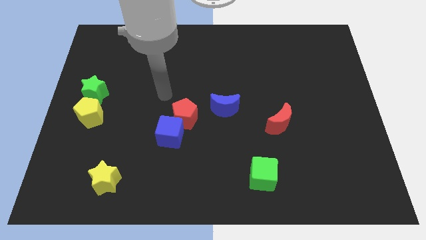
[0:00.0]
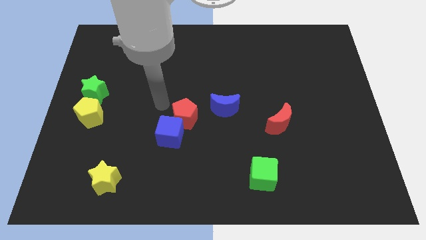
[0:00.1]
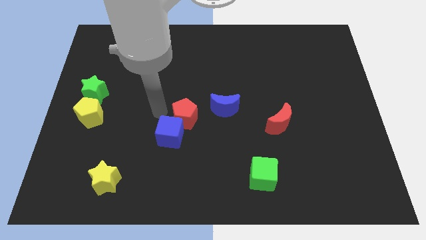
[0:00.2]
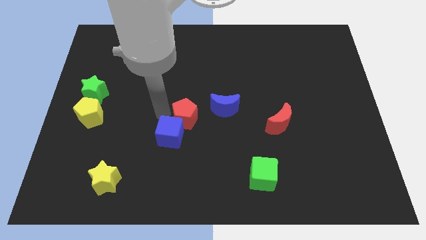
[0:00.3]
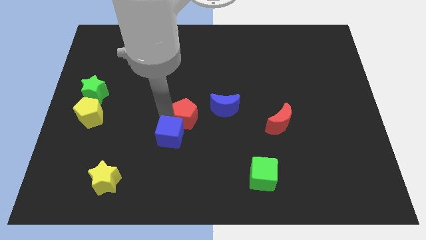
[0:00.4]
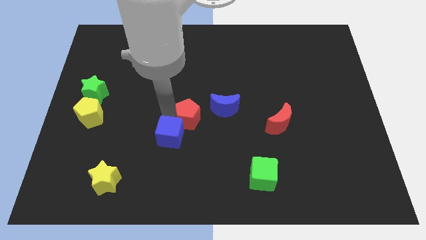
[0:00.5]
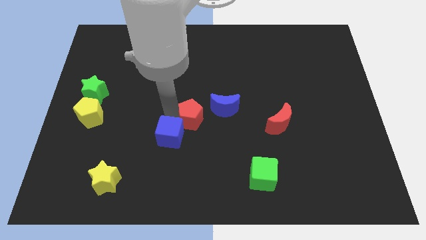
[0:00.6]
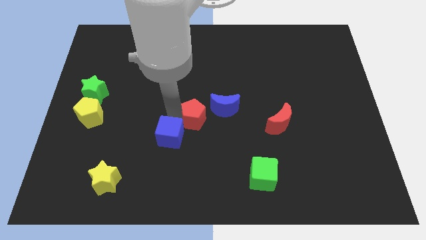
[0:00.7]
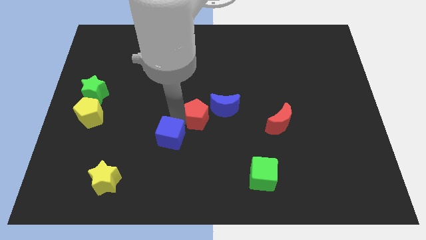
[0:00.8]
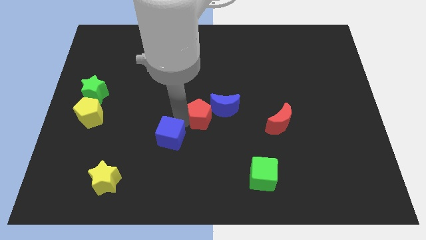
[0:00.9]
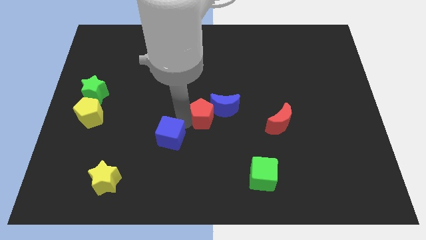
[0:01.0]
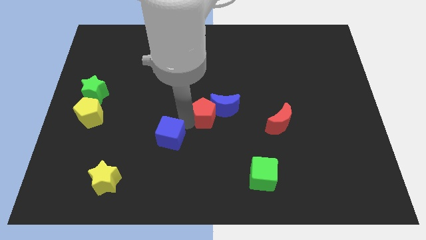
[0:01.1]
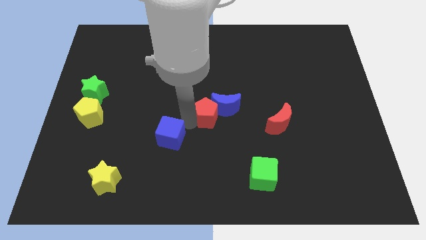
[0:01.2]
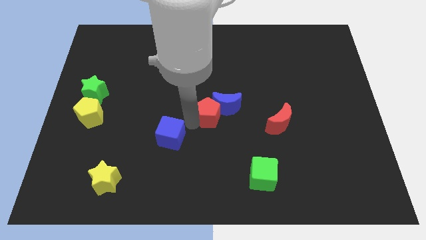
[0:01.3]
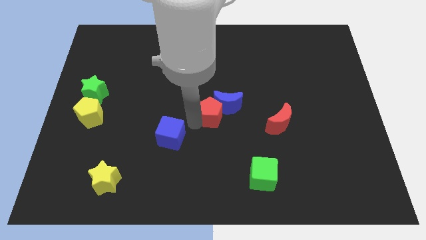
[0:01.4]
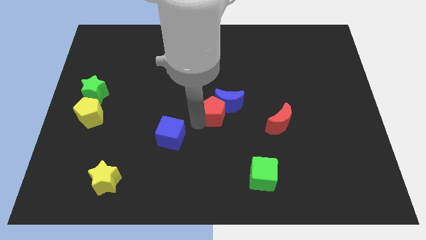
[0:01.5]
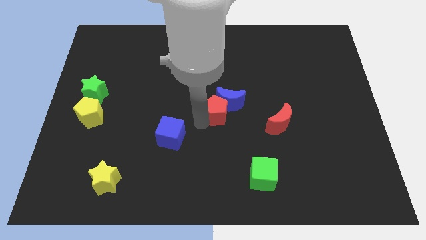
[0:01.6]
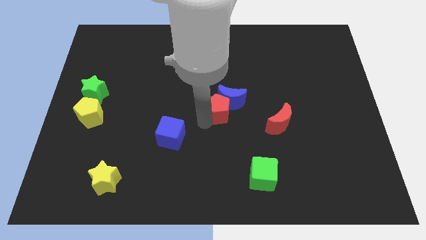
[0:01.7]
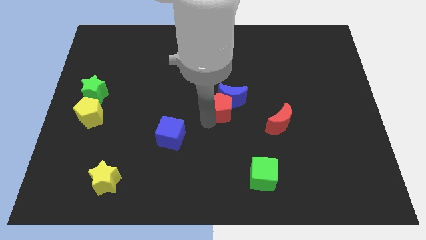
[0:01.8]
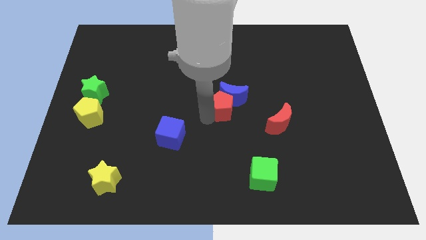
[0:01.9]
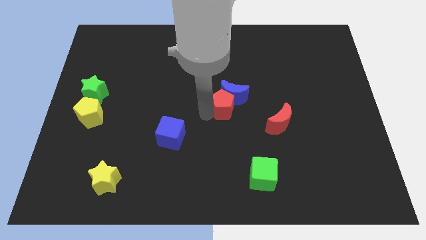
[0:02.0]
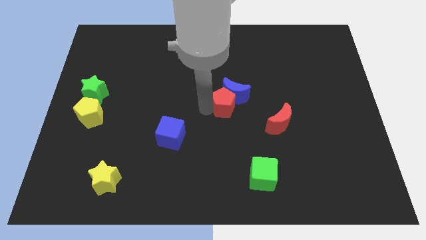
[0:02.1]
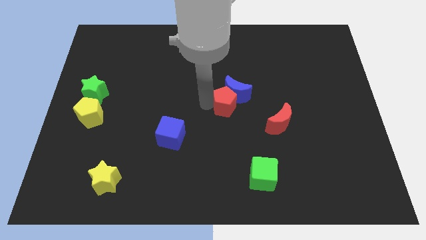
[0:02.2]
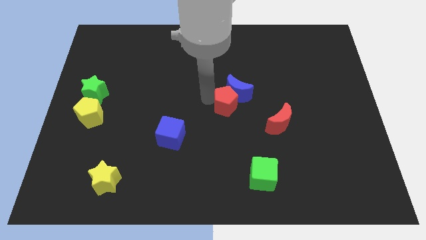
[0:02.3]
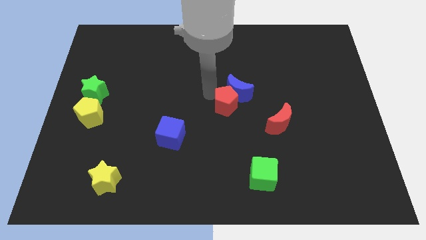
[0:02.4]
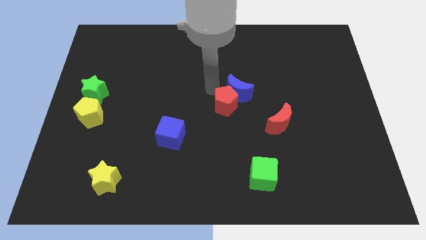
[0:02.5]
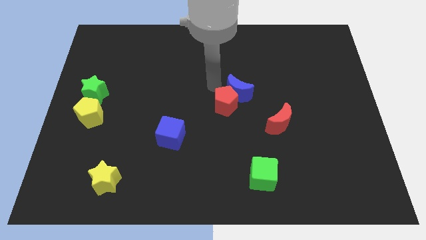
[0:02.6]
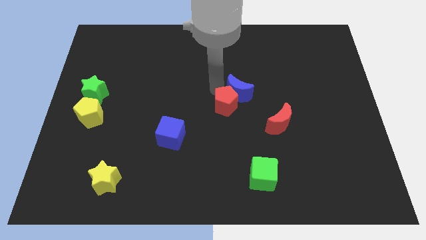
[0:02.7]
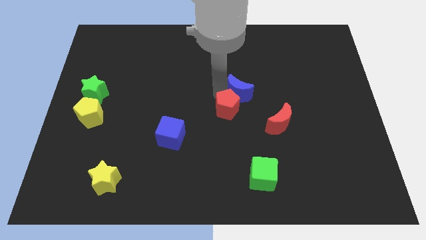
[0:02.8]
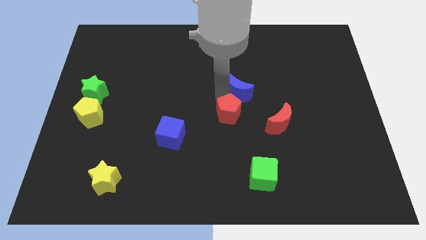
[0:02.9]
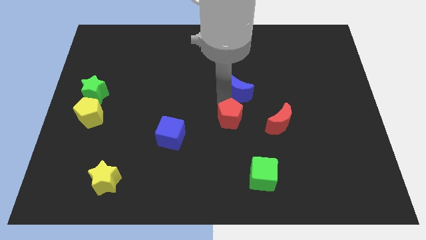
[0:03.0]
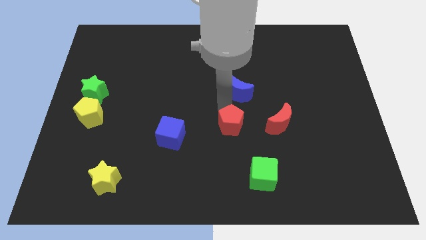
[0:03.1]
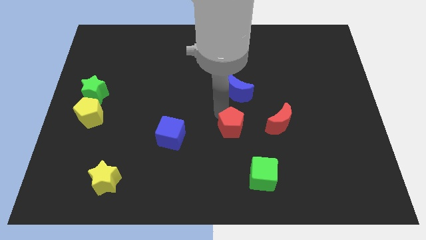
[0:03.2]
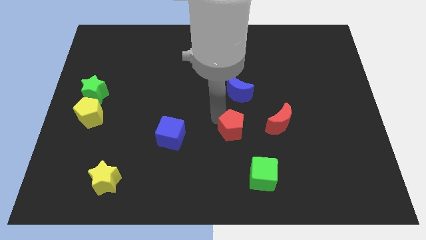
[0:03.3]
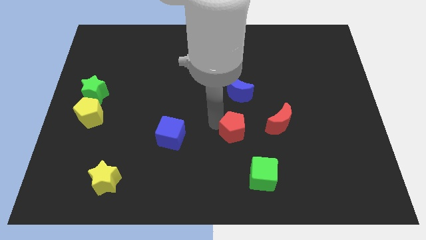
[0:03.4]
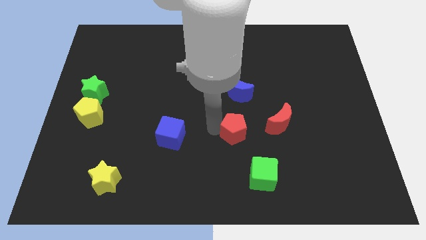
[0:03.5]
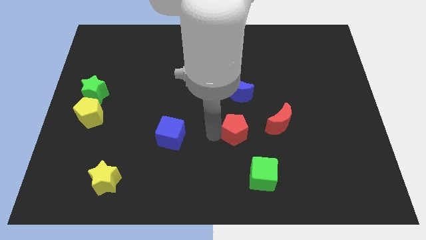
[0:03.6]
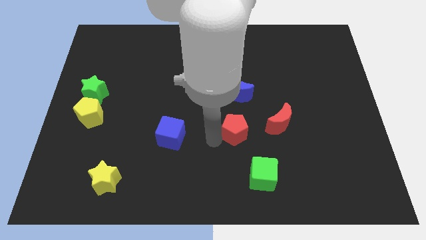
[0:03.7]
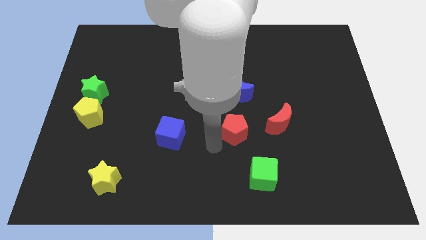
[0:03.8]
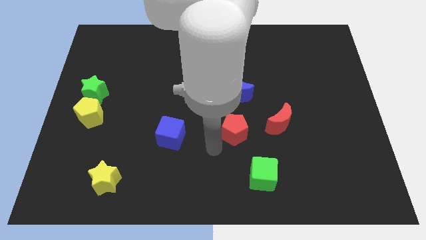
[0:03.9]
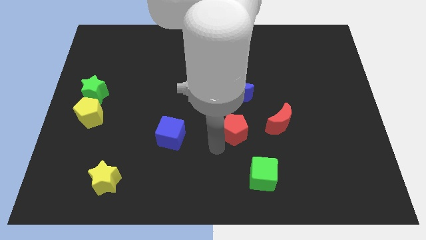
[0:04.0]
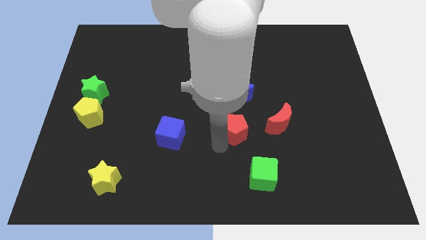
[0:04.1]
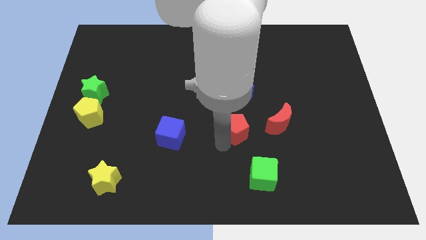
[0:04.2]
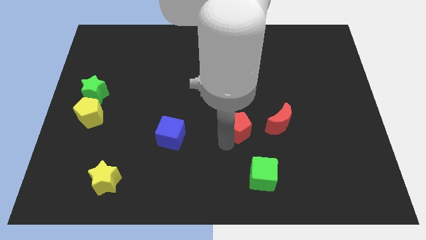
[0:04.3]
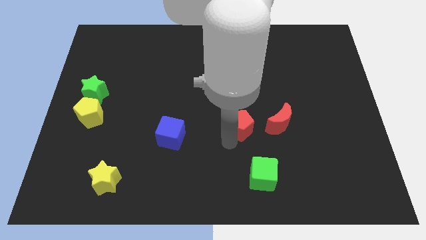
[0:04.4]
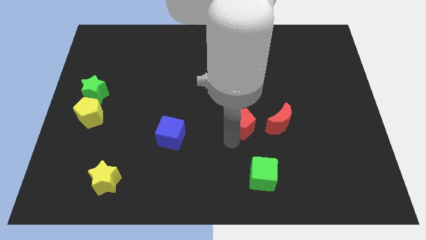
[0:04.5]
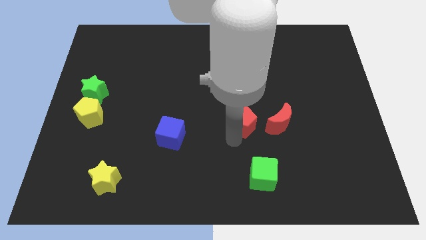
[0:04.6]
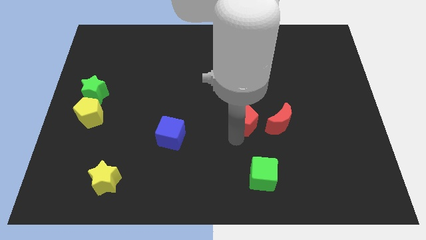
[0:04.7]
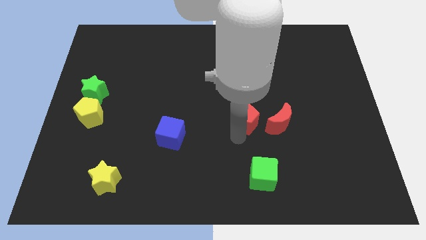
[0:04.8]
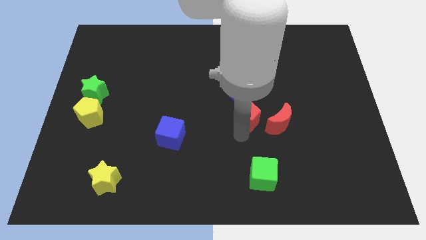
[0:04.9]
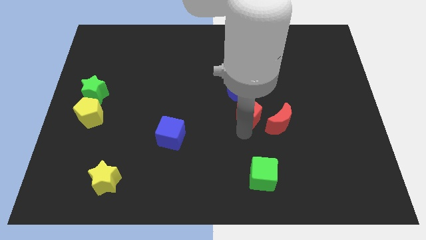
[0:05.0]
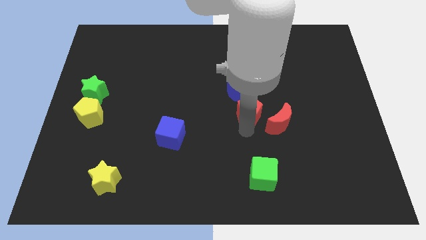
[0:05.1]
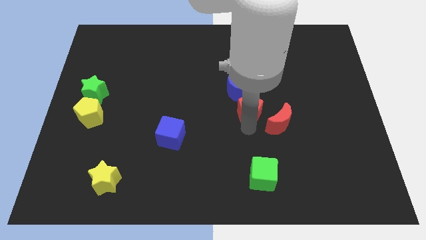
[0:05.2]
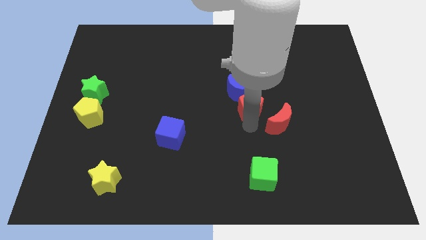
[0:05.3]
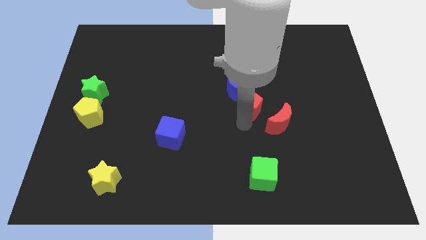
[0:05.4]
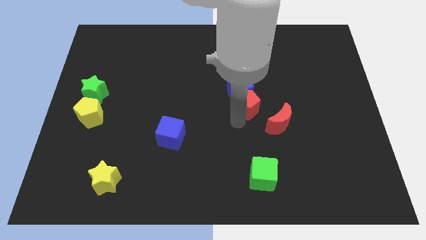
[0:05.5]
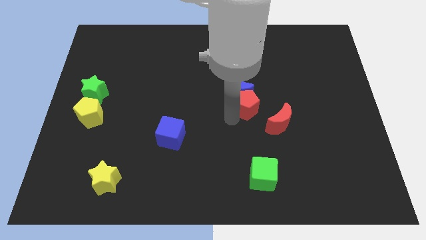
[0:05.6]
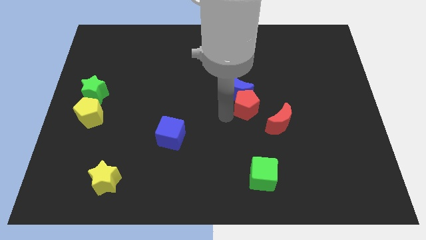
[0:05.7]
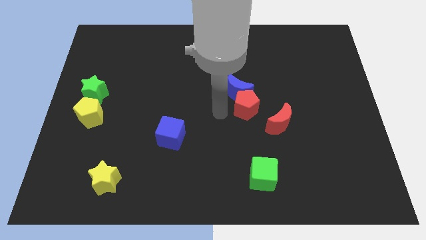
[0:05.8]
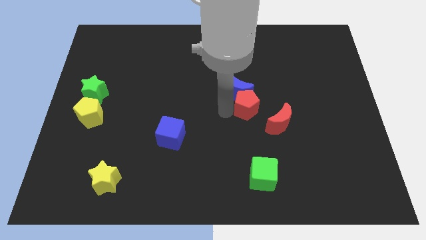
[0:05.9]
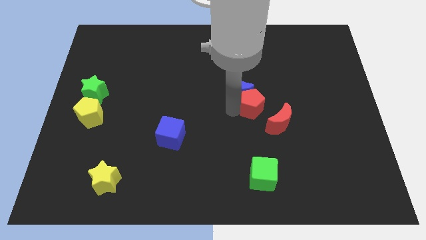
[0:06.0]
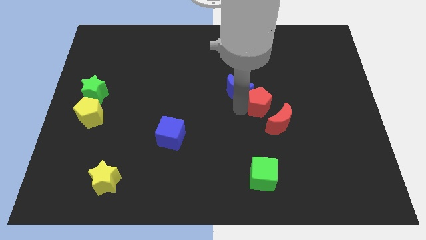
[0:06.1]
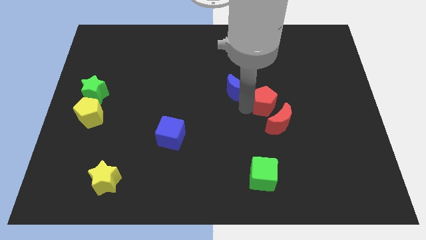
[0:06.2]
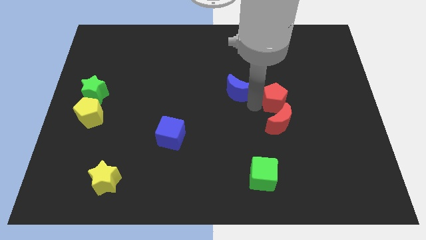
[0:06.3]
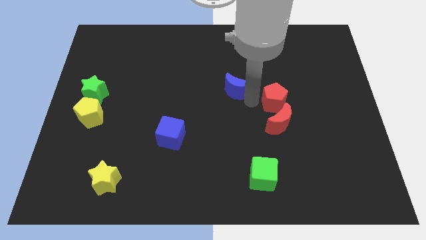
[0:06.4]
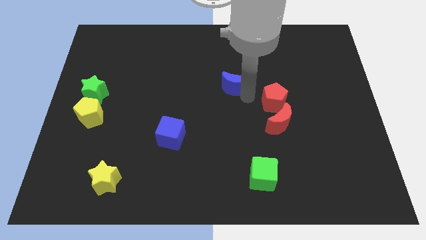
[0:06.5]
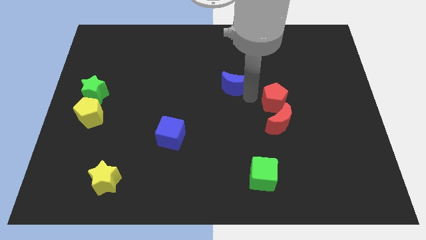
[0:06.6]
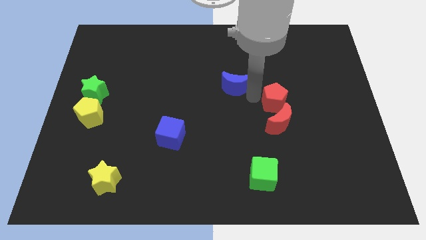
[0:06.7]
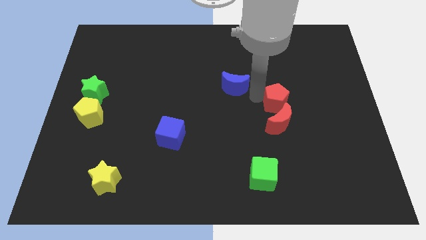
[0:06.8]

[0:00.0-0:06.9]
slide the red pentagon to the top right side of the red moon
